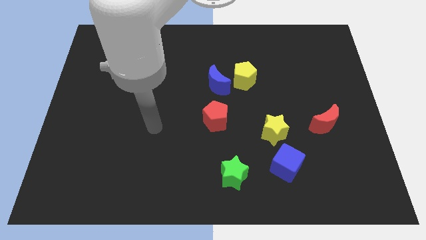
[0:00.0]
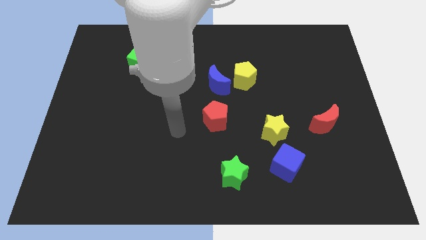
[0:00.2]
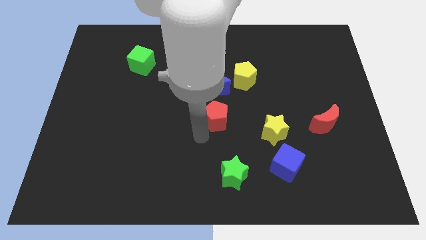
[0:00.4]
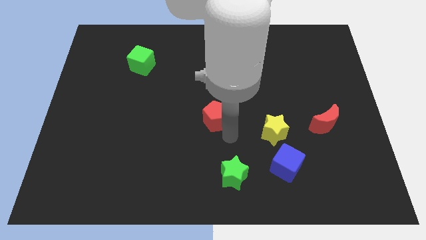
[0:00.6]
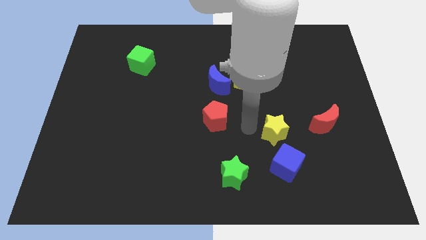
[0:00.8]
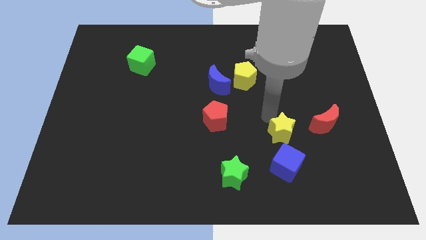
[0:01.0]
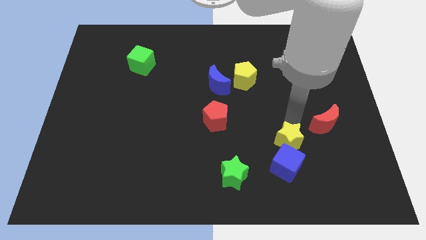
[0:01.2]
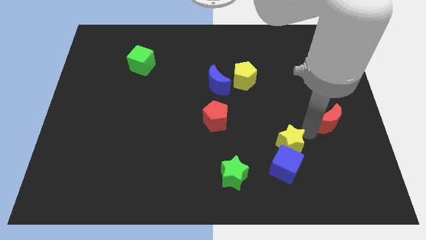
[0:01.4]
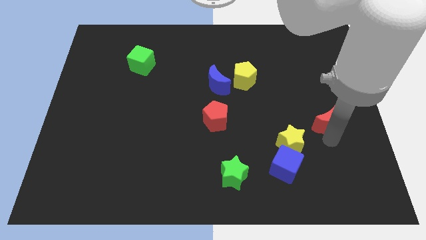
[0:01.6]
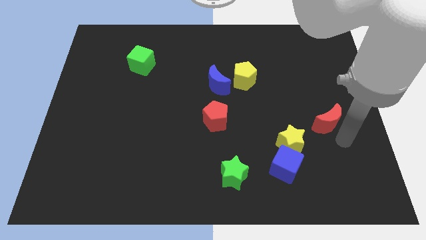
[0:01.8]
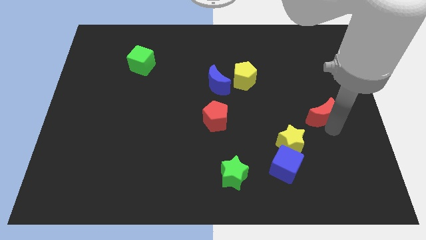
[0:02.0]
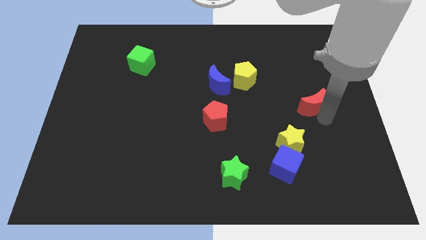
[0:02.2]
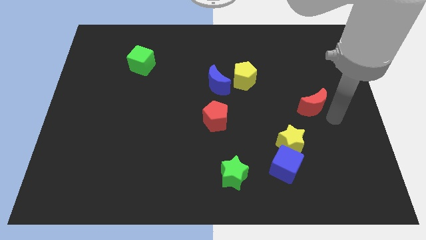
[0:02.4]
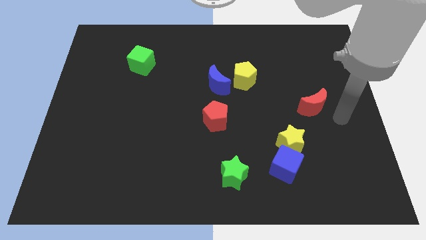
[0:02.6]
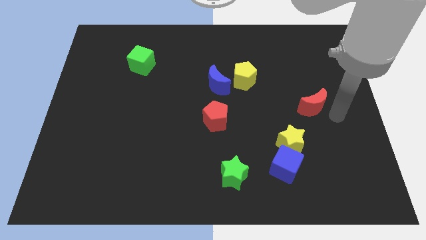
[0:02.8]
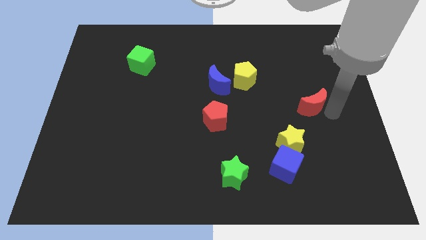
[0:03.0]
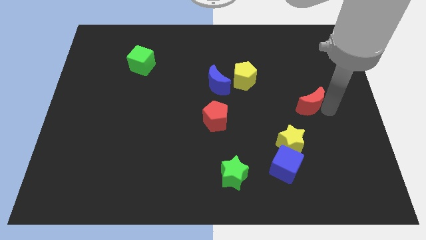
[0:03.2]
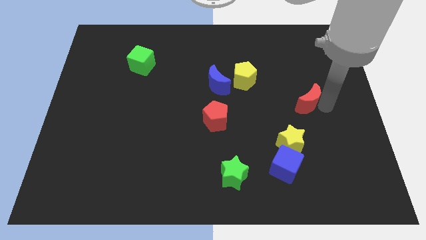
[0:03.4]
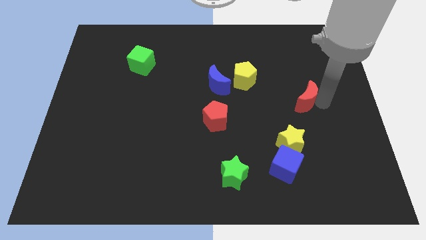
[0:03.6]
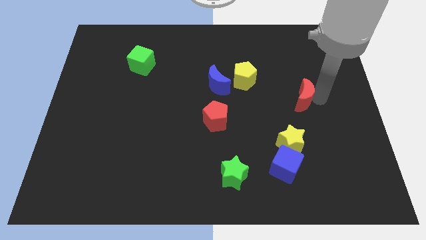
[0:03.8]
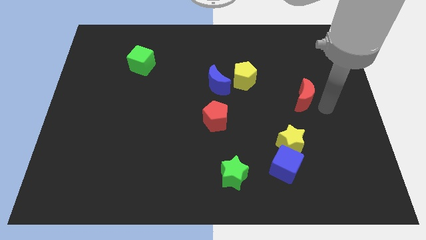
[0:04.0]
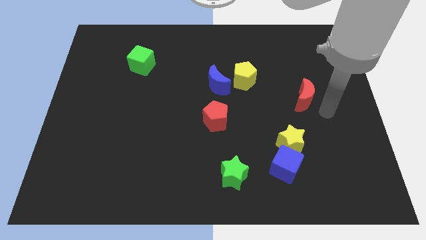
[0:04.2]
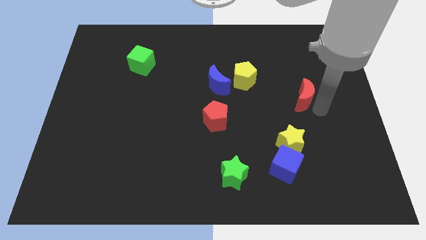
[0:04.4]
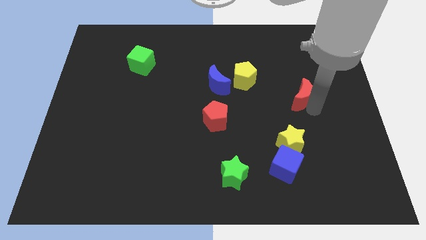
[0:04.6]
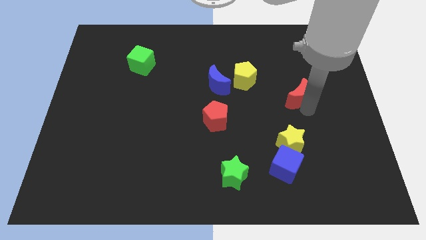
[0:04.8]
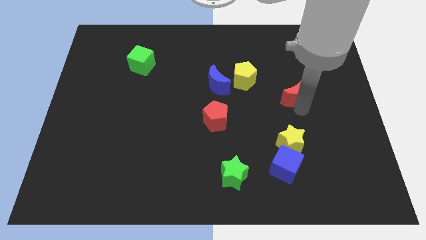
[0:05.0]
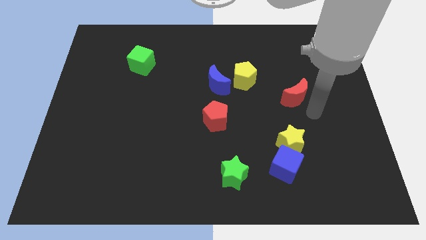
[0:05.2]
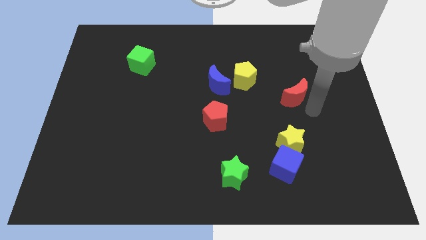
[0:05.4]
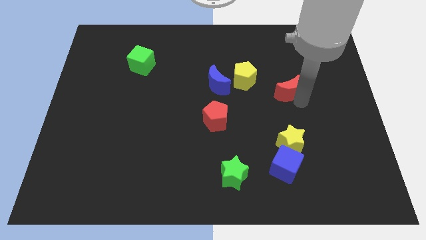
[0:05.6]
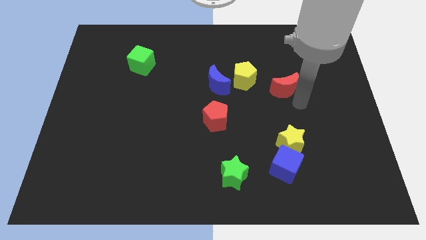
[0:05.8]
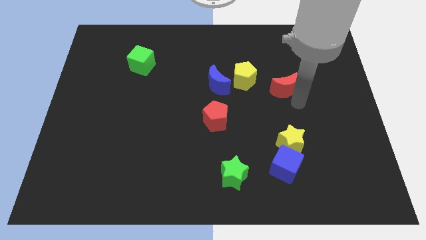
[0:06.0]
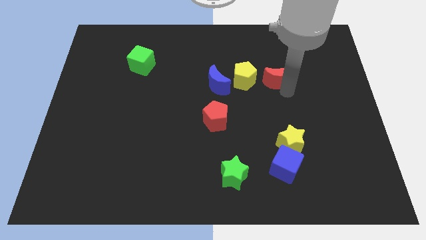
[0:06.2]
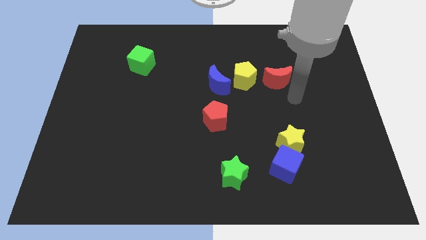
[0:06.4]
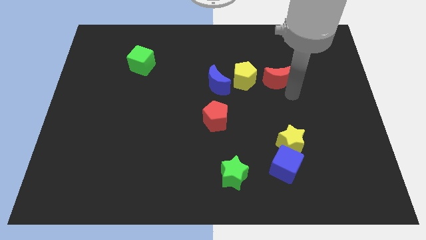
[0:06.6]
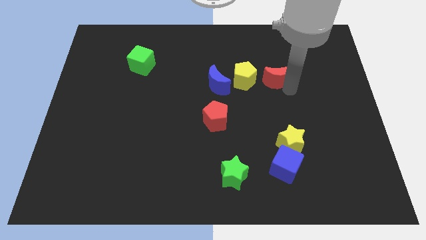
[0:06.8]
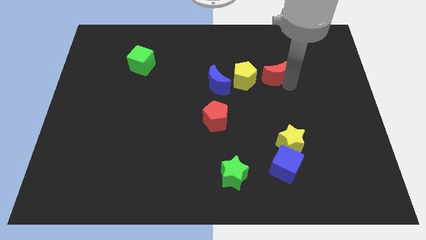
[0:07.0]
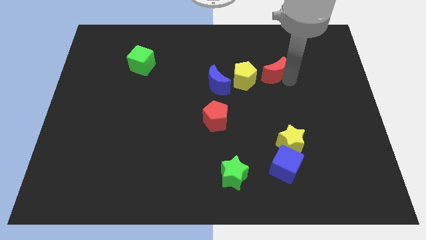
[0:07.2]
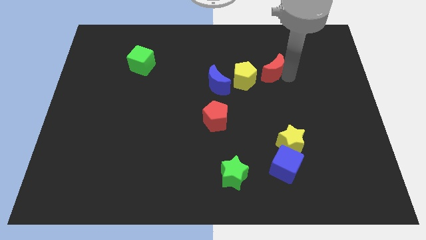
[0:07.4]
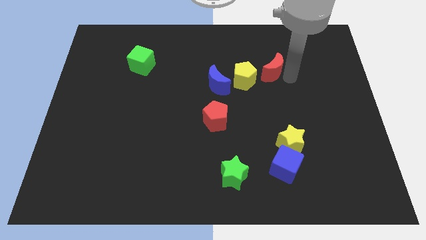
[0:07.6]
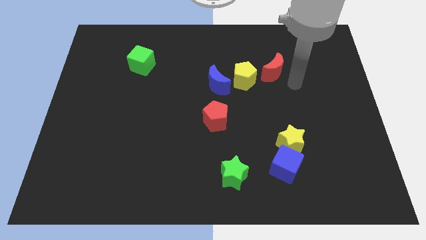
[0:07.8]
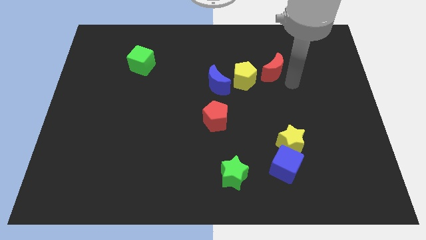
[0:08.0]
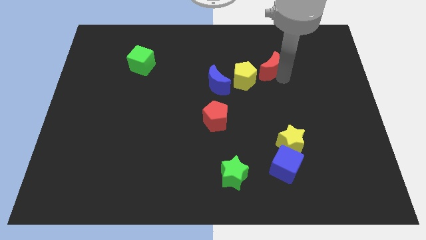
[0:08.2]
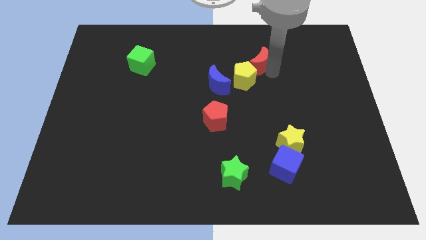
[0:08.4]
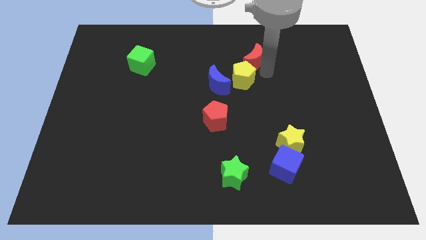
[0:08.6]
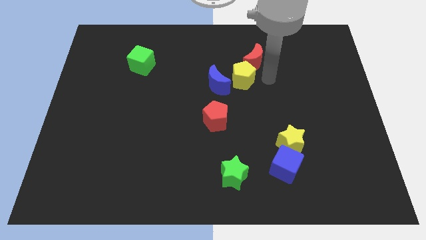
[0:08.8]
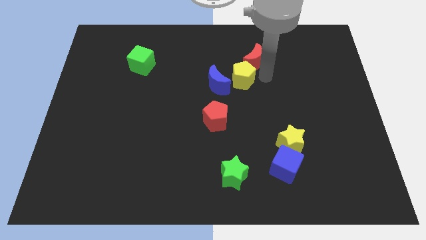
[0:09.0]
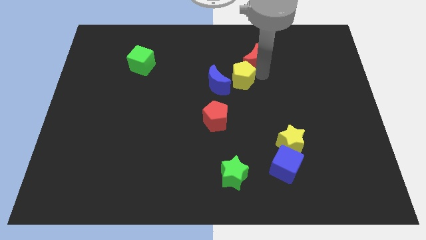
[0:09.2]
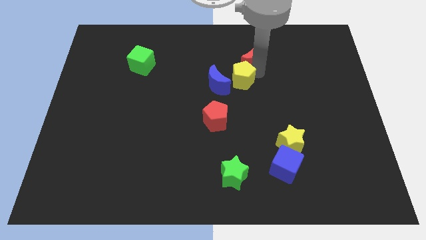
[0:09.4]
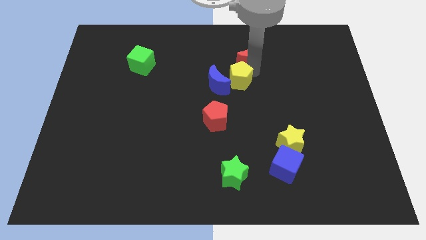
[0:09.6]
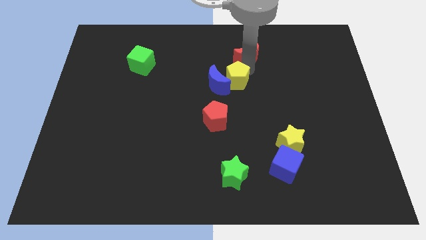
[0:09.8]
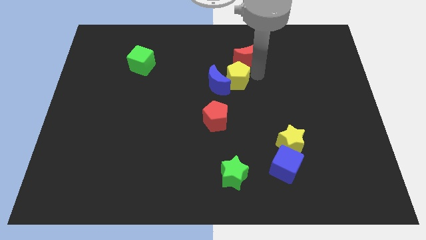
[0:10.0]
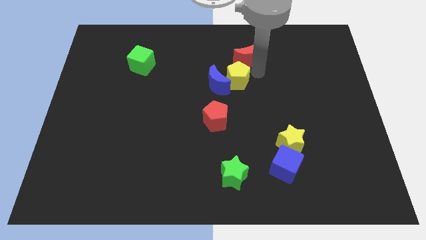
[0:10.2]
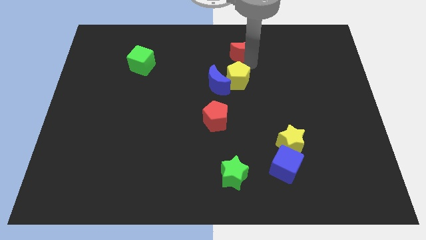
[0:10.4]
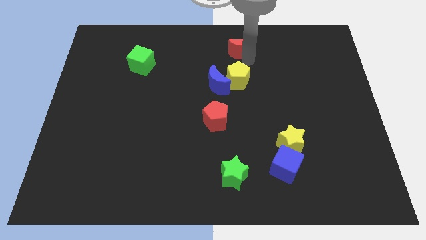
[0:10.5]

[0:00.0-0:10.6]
put the red moon to the top side

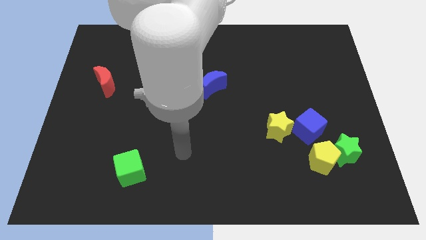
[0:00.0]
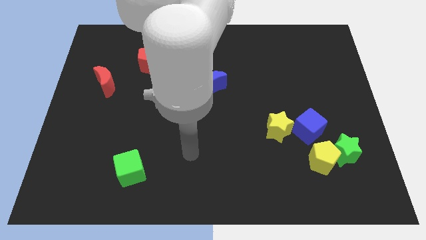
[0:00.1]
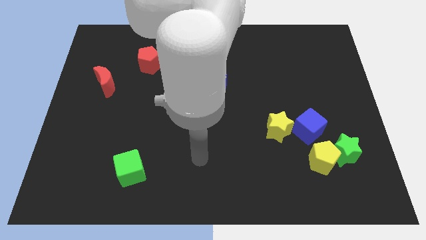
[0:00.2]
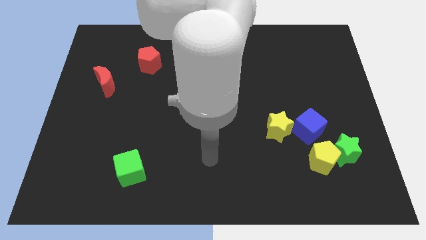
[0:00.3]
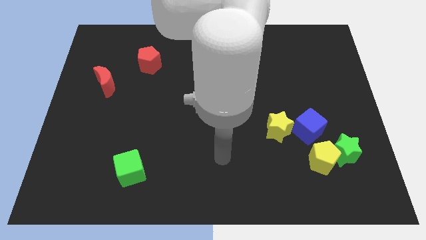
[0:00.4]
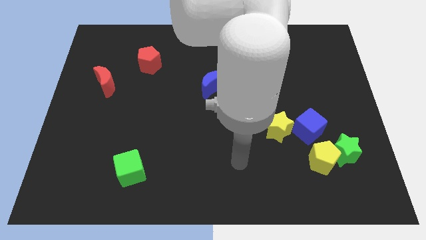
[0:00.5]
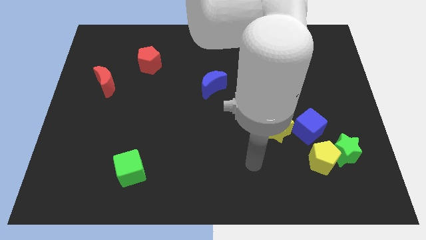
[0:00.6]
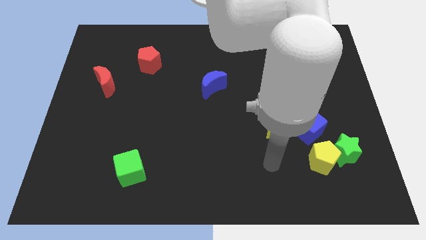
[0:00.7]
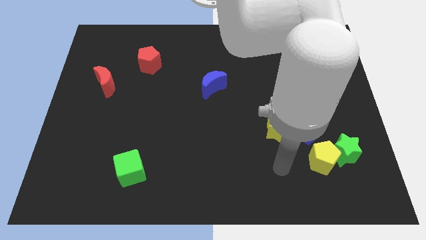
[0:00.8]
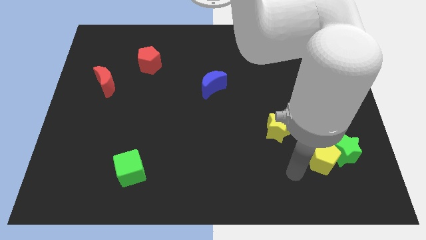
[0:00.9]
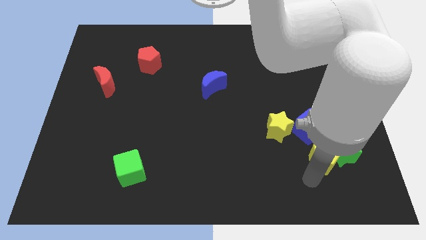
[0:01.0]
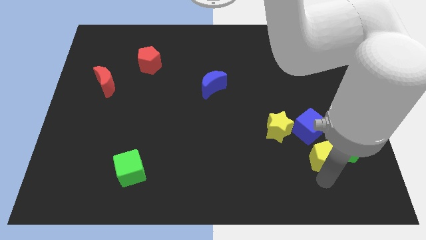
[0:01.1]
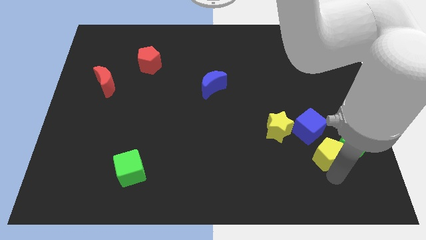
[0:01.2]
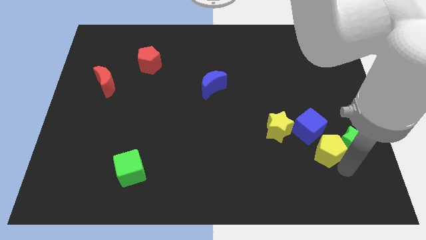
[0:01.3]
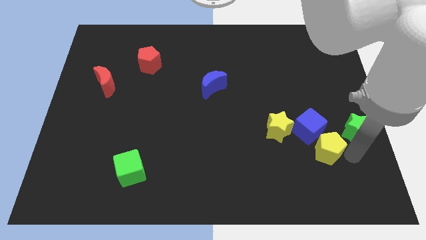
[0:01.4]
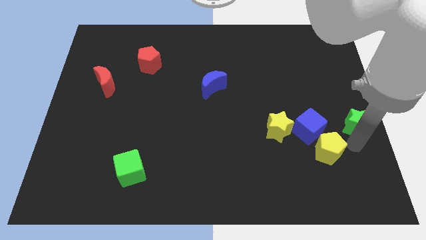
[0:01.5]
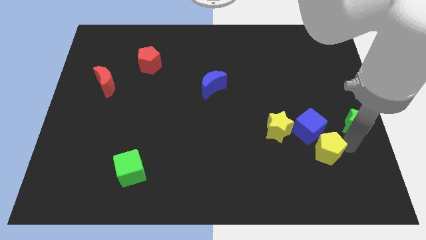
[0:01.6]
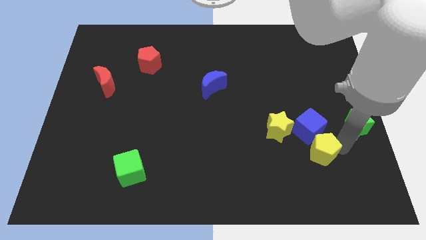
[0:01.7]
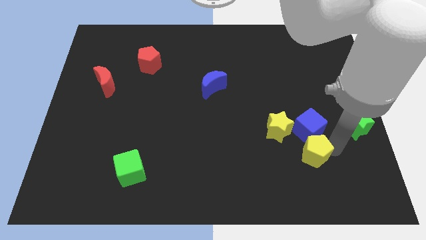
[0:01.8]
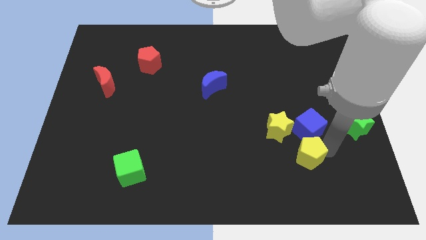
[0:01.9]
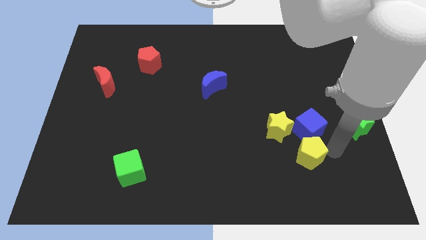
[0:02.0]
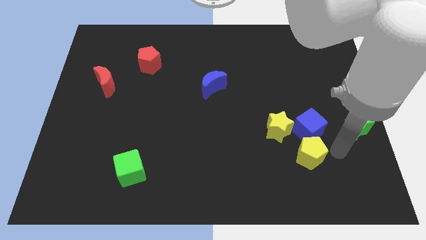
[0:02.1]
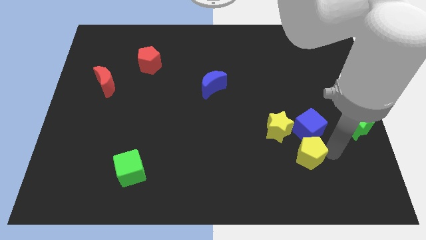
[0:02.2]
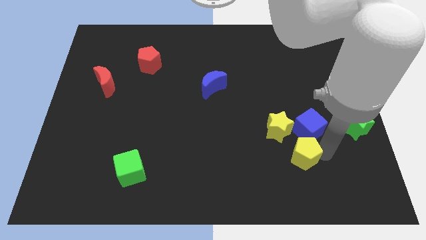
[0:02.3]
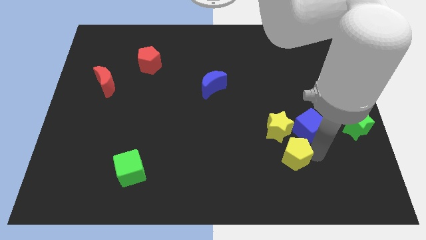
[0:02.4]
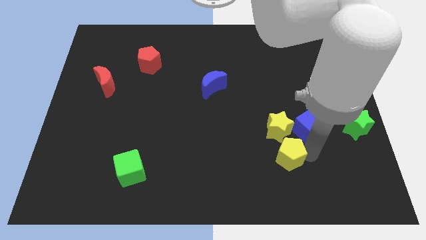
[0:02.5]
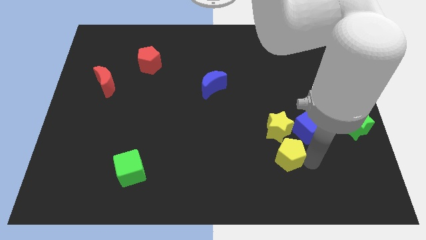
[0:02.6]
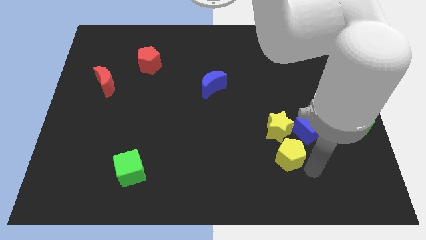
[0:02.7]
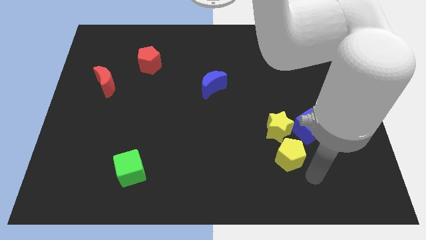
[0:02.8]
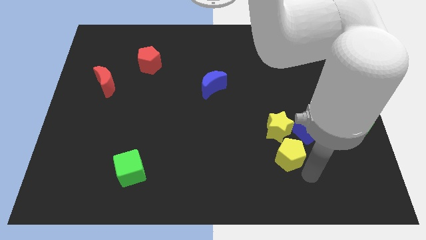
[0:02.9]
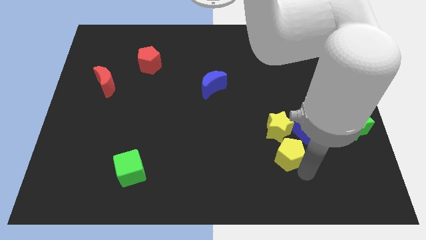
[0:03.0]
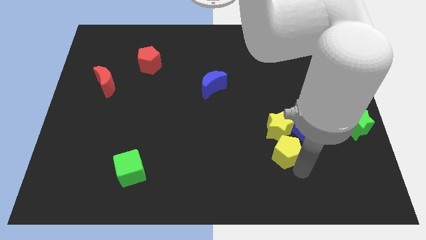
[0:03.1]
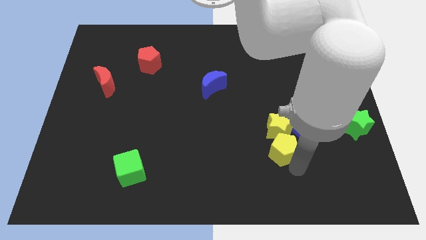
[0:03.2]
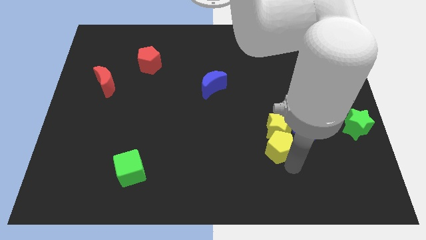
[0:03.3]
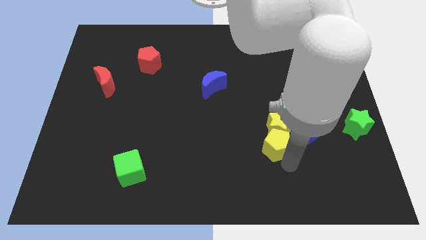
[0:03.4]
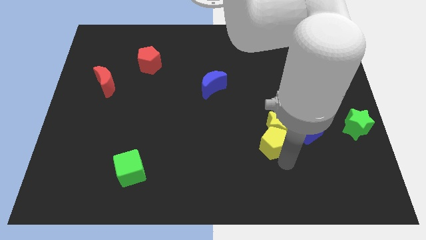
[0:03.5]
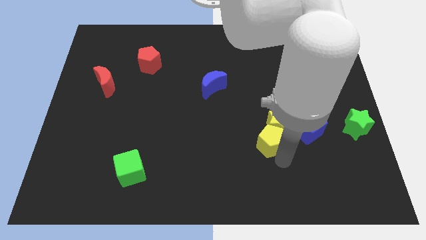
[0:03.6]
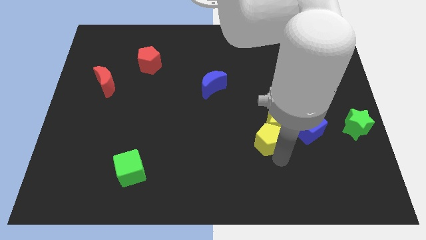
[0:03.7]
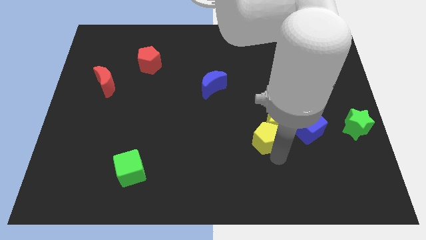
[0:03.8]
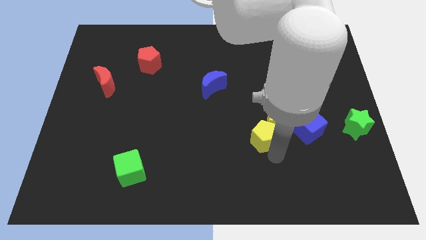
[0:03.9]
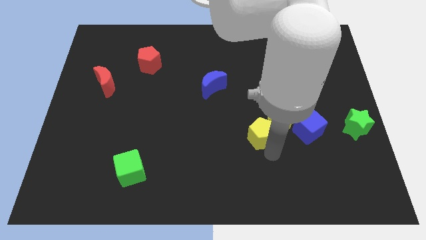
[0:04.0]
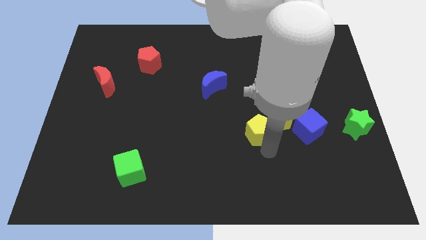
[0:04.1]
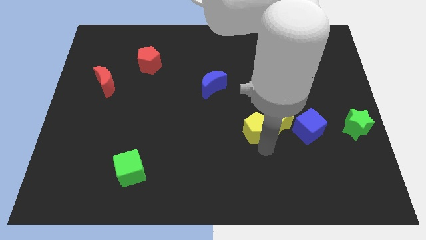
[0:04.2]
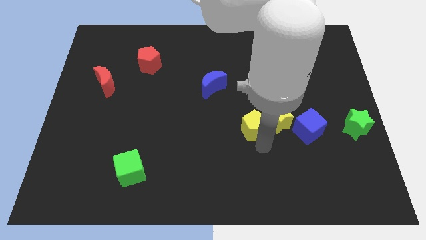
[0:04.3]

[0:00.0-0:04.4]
slide the yellow pentagon to the center of the board
